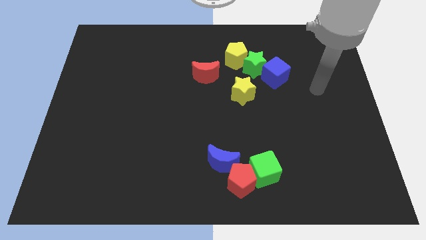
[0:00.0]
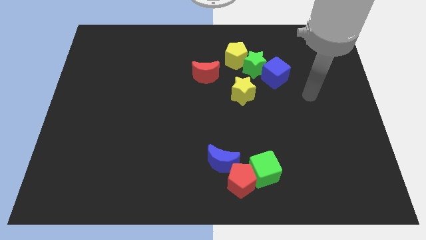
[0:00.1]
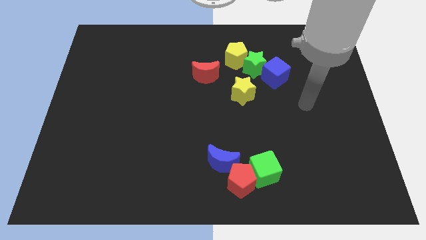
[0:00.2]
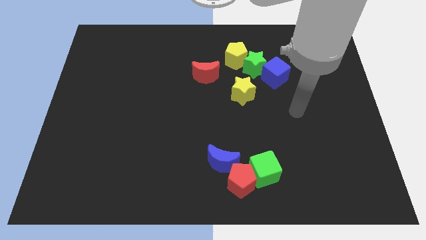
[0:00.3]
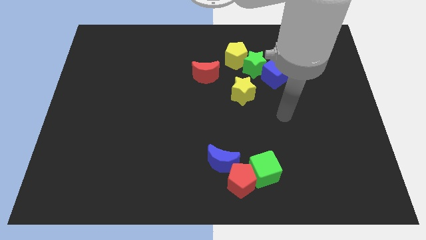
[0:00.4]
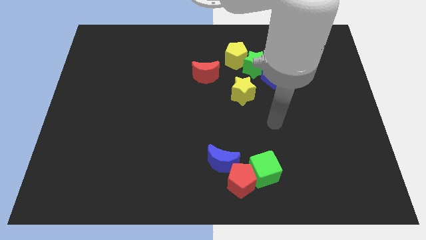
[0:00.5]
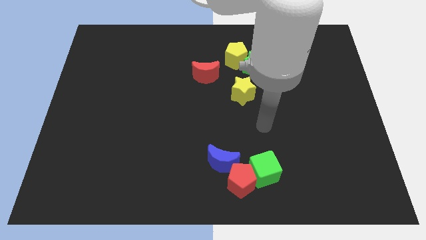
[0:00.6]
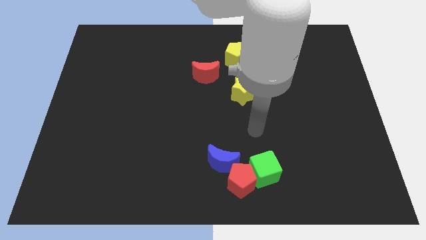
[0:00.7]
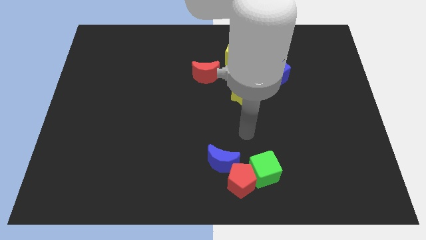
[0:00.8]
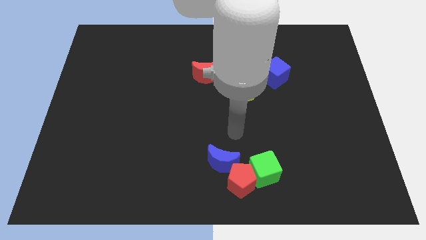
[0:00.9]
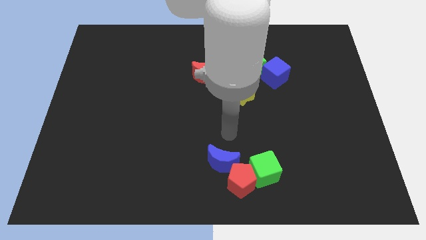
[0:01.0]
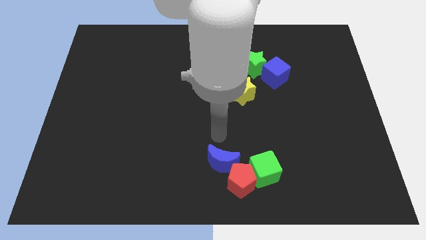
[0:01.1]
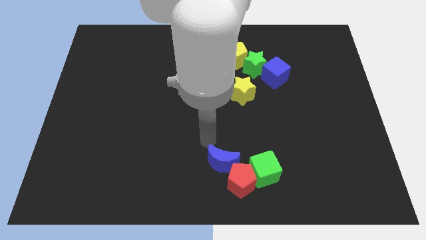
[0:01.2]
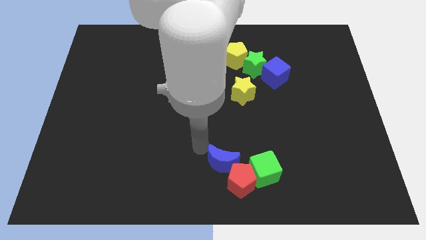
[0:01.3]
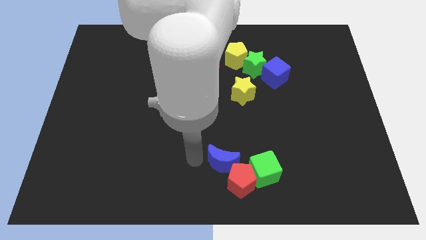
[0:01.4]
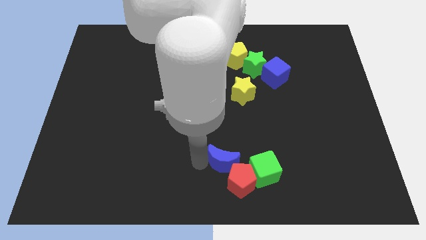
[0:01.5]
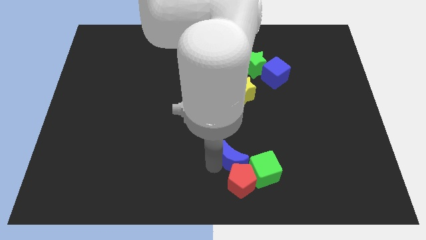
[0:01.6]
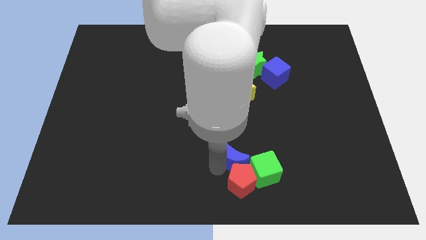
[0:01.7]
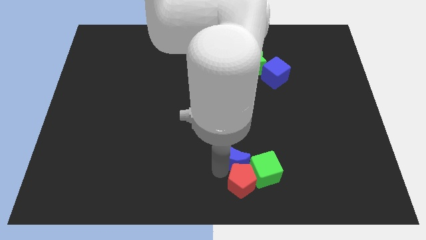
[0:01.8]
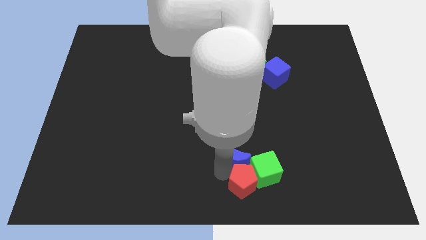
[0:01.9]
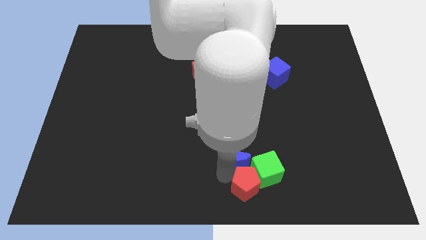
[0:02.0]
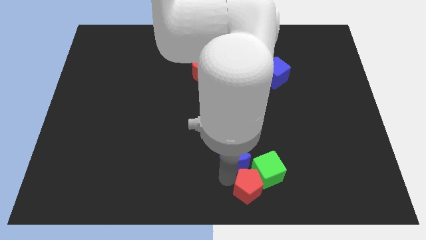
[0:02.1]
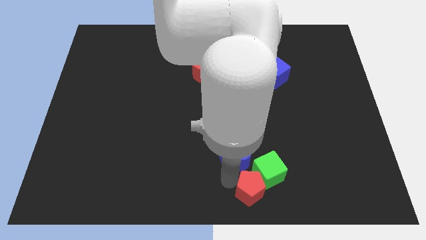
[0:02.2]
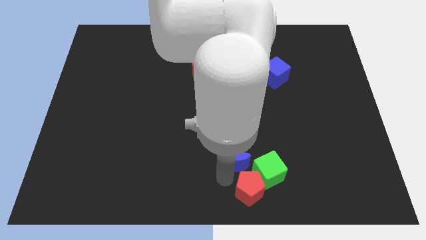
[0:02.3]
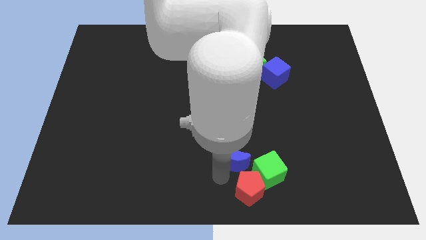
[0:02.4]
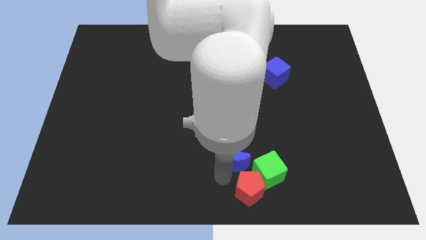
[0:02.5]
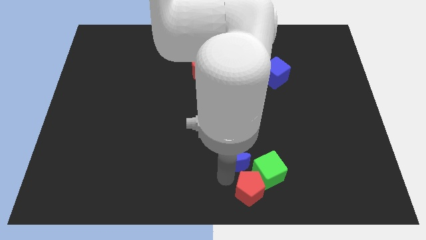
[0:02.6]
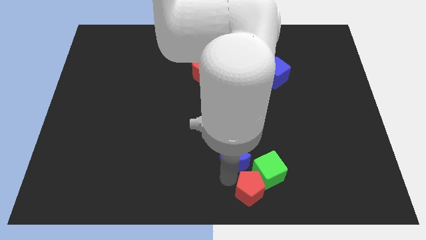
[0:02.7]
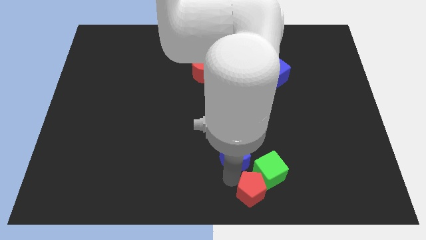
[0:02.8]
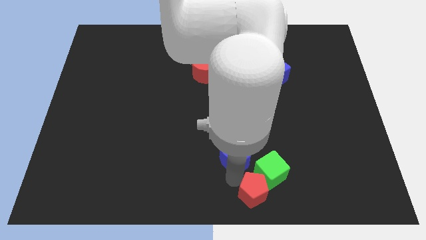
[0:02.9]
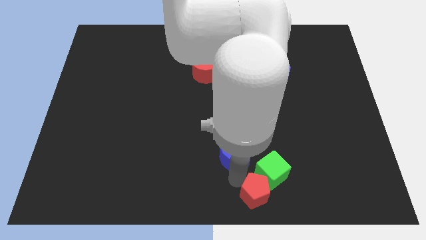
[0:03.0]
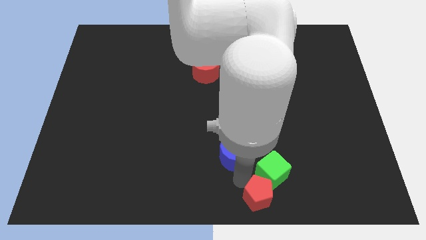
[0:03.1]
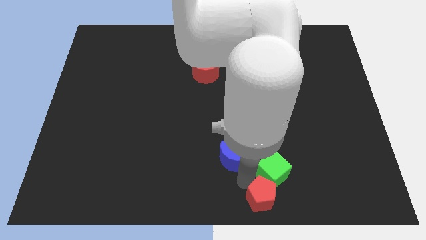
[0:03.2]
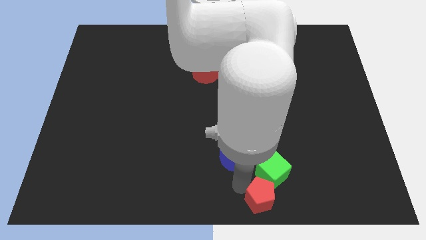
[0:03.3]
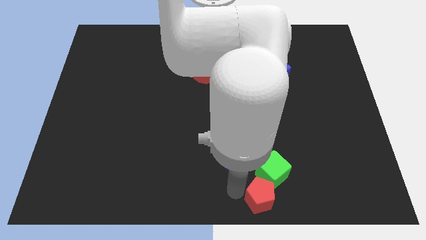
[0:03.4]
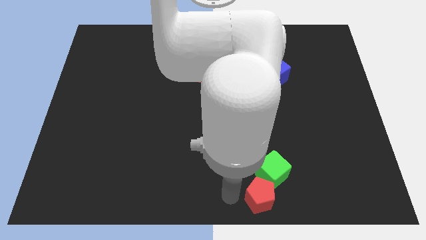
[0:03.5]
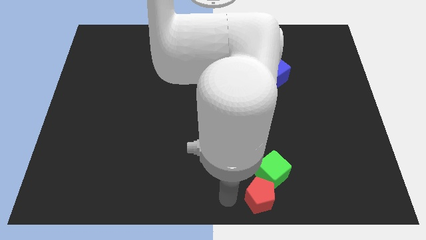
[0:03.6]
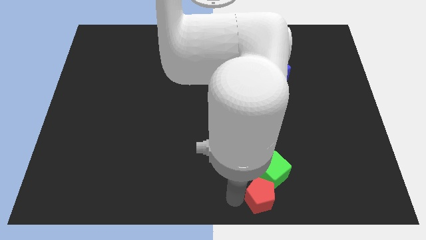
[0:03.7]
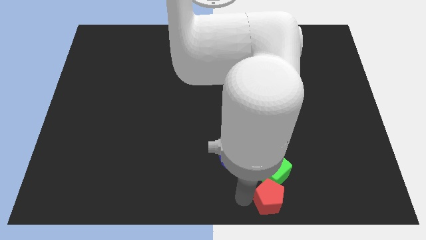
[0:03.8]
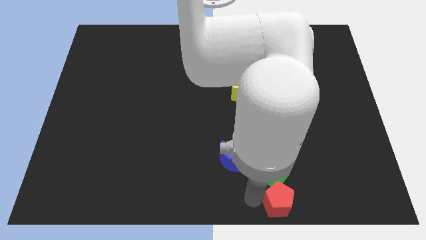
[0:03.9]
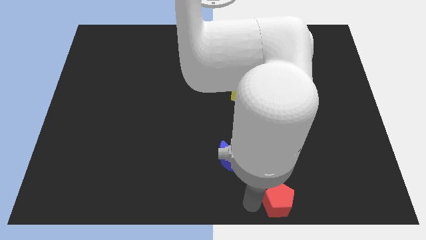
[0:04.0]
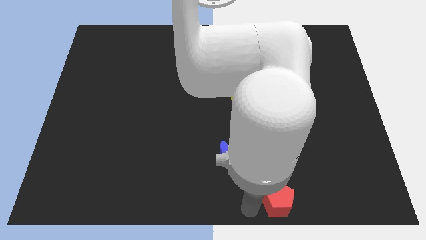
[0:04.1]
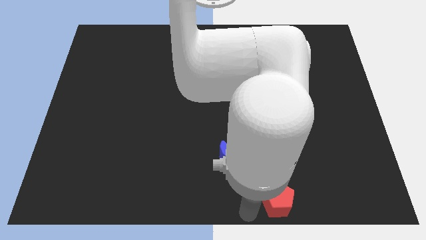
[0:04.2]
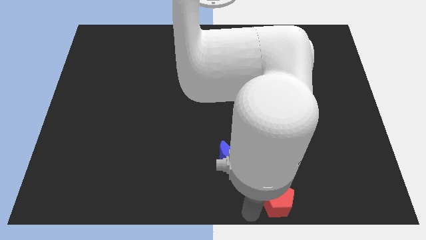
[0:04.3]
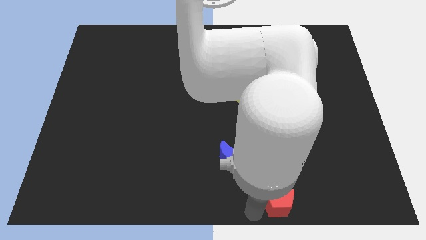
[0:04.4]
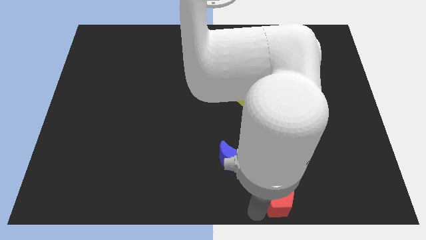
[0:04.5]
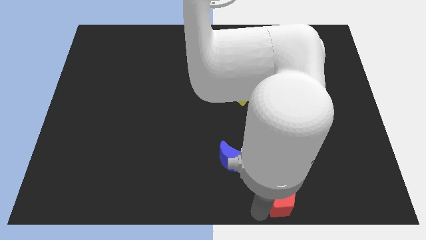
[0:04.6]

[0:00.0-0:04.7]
move the red pentagon slightly right

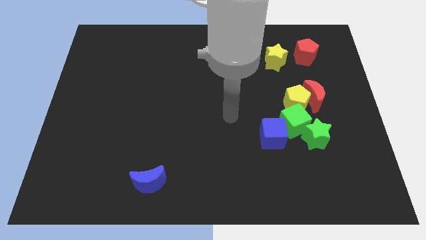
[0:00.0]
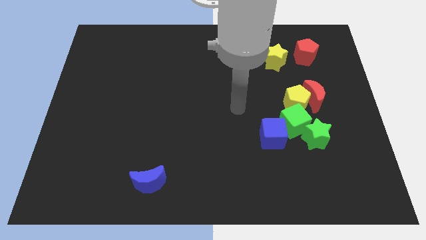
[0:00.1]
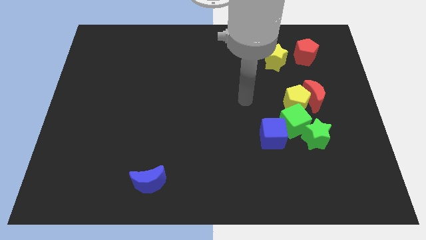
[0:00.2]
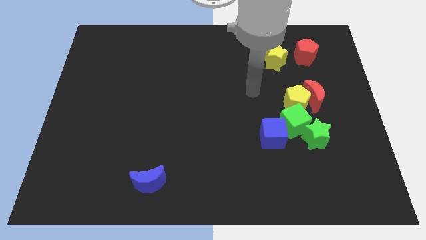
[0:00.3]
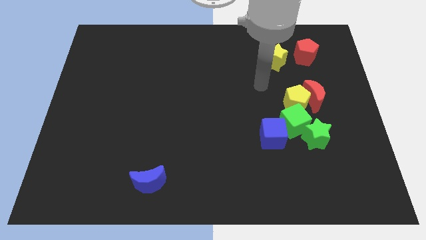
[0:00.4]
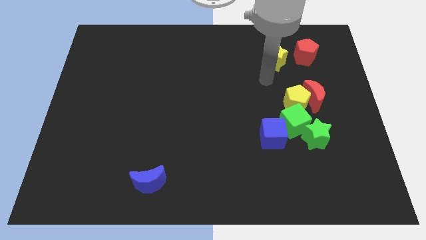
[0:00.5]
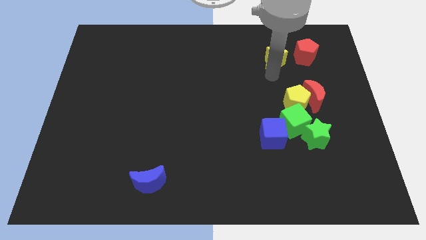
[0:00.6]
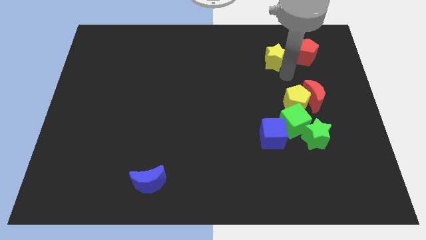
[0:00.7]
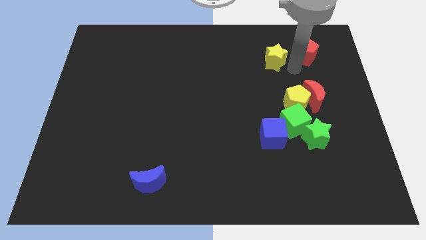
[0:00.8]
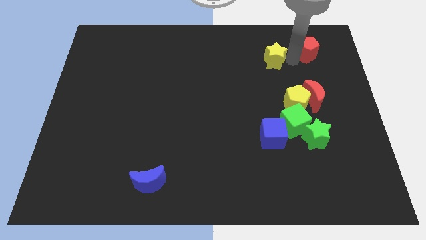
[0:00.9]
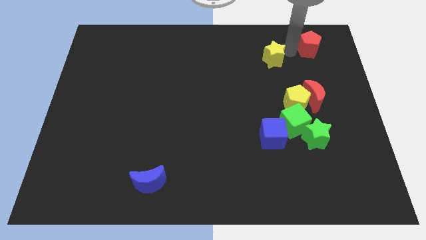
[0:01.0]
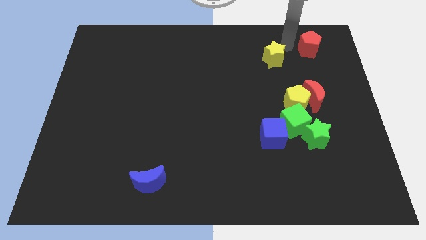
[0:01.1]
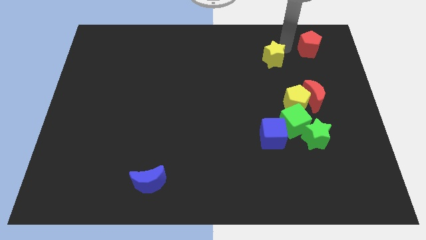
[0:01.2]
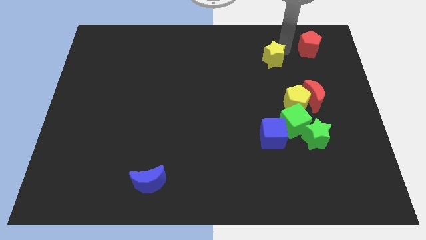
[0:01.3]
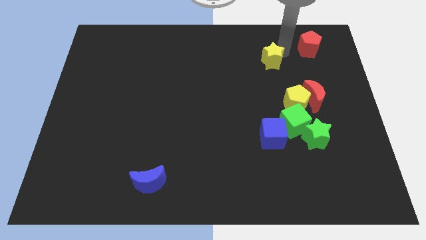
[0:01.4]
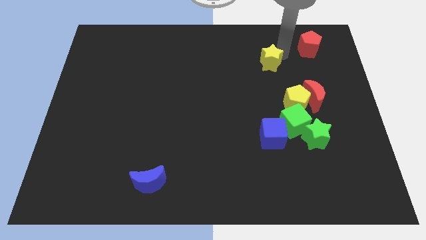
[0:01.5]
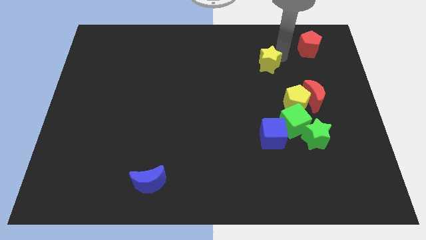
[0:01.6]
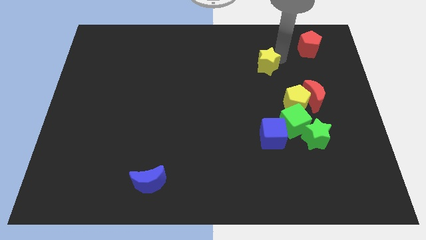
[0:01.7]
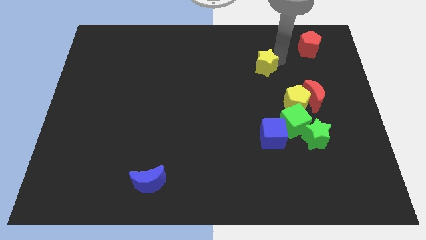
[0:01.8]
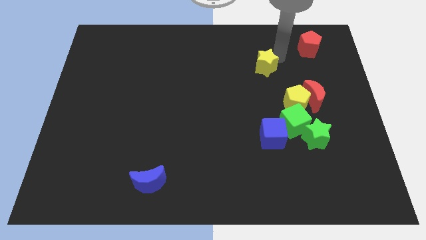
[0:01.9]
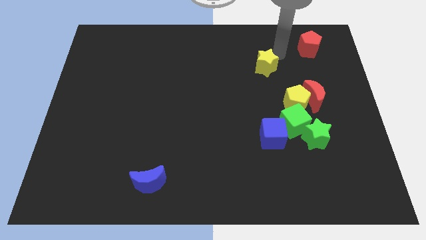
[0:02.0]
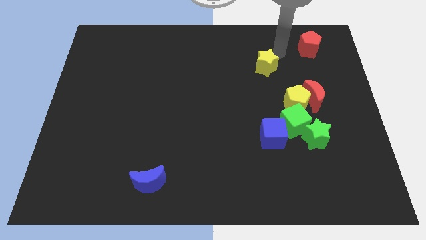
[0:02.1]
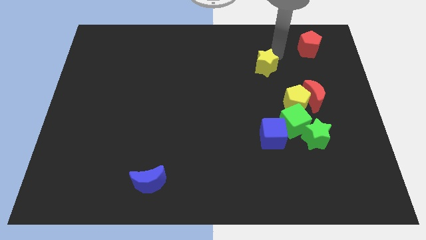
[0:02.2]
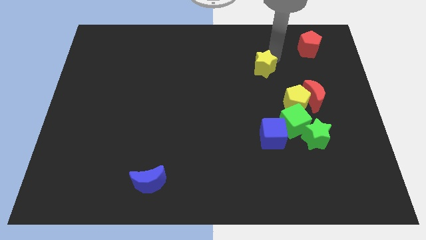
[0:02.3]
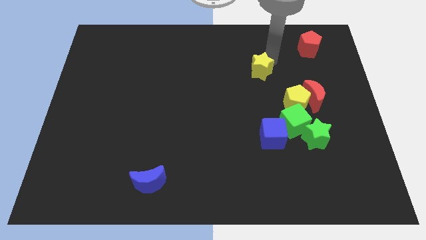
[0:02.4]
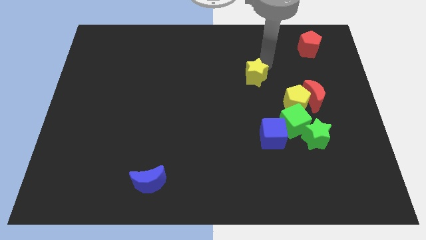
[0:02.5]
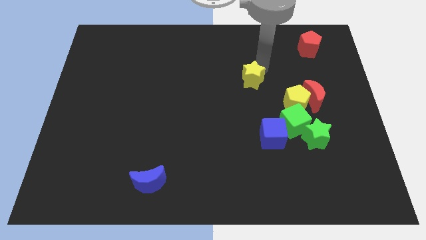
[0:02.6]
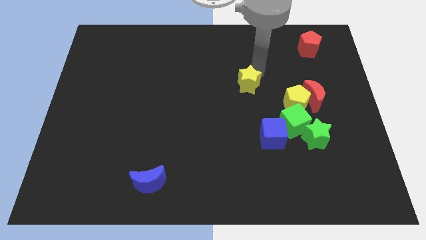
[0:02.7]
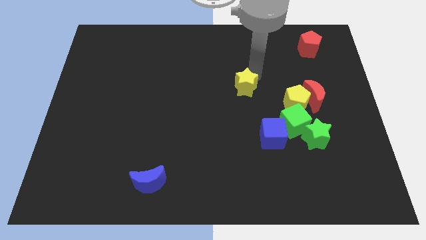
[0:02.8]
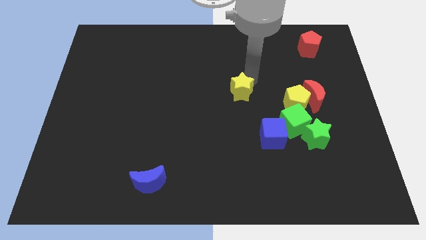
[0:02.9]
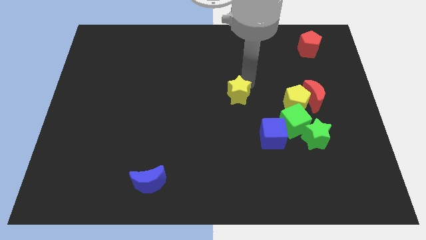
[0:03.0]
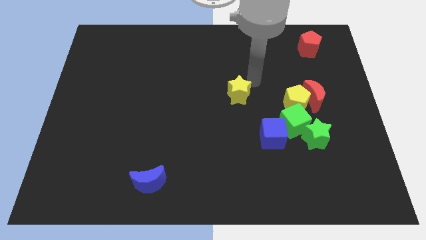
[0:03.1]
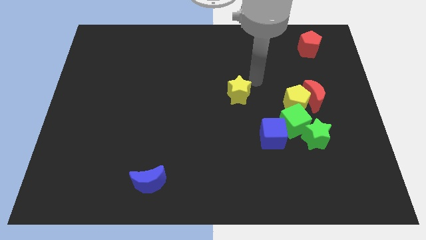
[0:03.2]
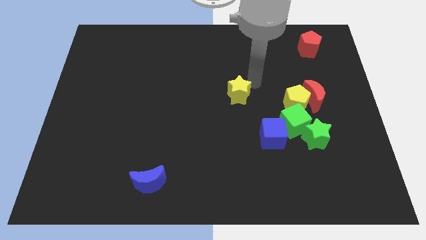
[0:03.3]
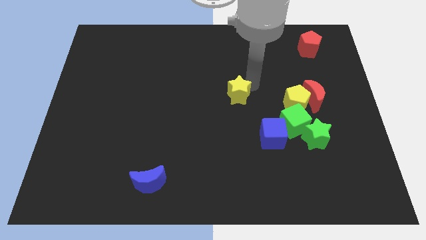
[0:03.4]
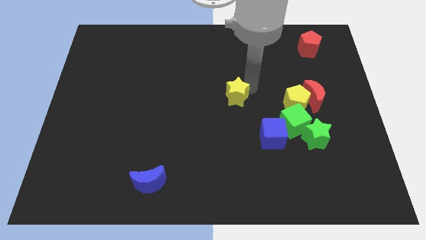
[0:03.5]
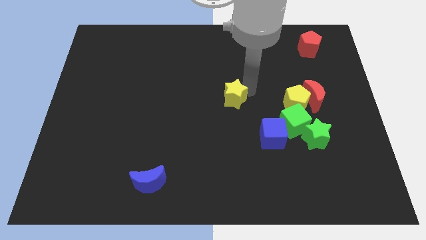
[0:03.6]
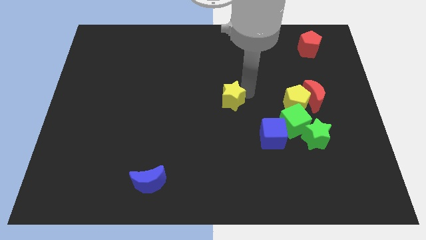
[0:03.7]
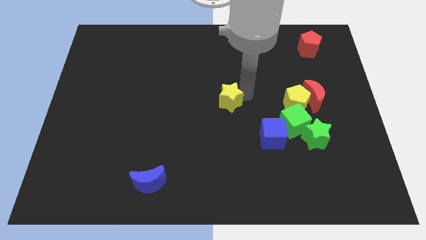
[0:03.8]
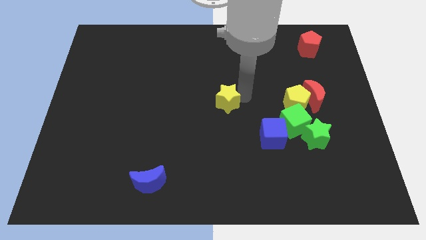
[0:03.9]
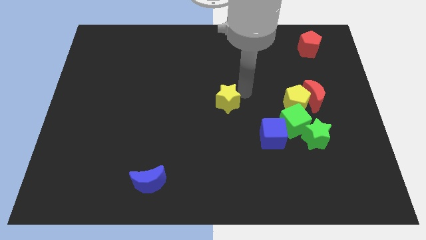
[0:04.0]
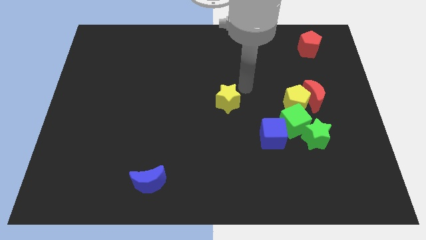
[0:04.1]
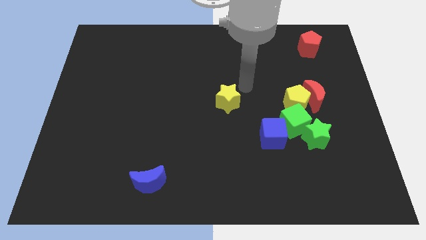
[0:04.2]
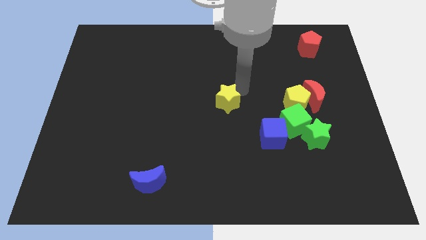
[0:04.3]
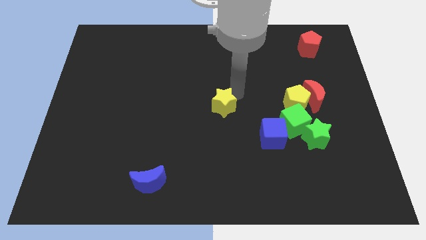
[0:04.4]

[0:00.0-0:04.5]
move the yellow star downwards and then to the left
